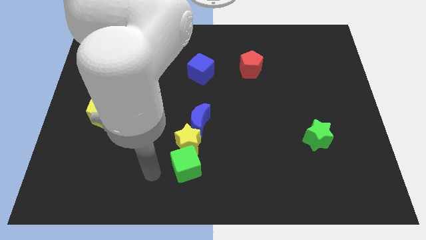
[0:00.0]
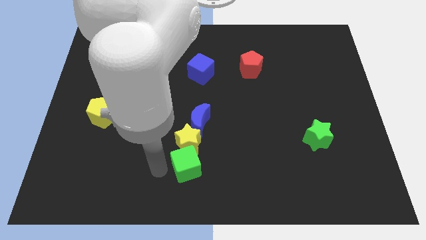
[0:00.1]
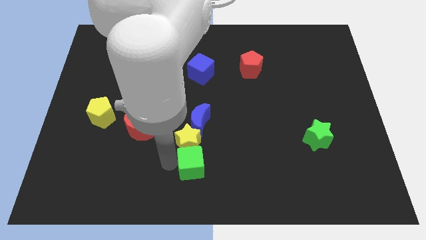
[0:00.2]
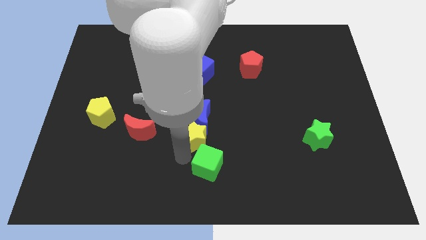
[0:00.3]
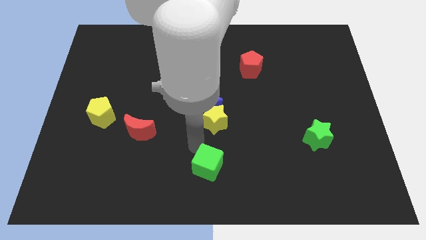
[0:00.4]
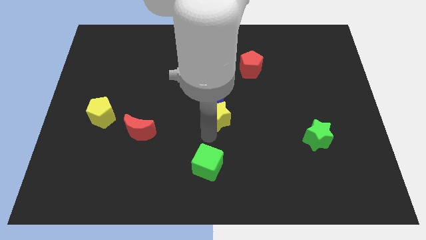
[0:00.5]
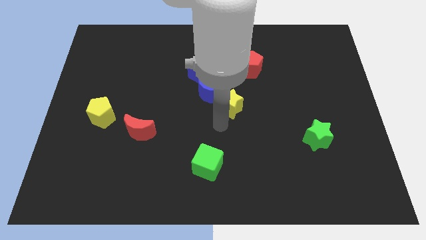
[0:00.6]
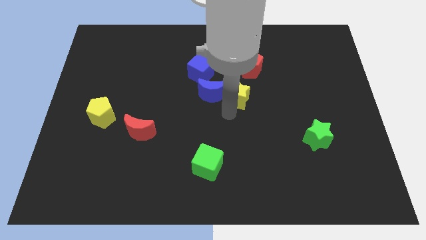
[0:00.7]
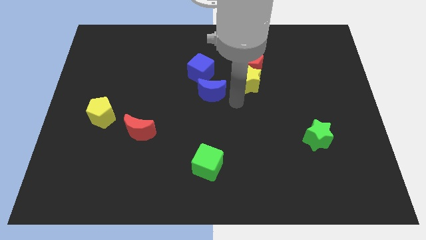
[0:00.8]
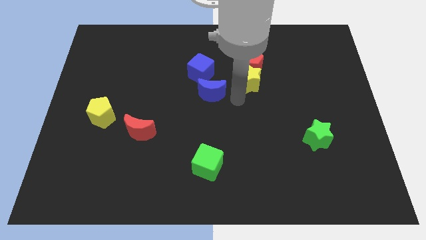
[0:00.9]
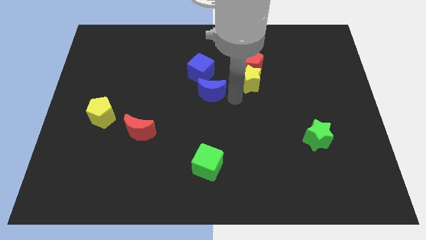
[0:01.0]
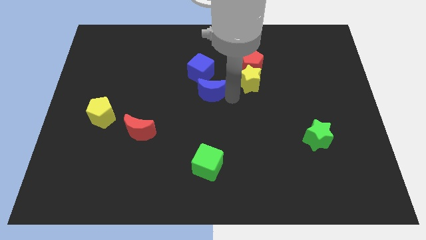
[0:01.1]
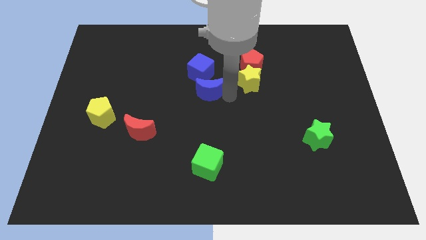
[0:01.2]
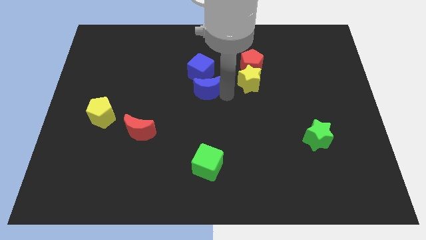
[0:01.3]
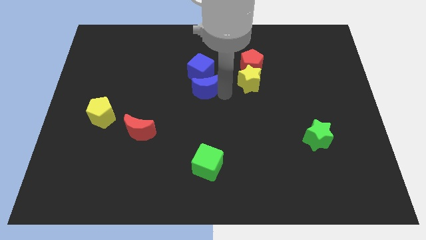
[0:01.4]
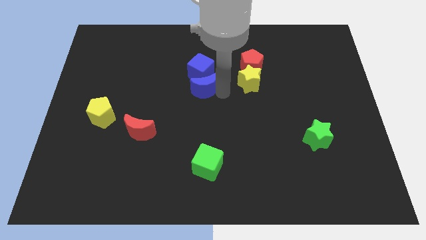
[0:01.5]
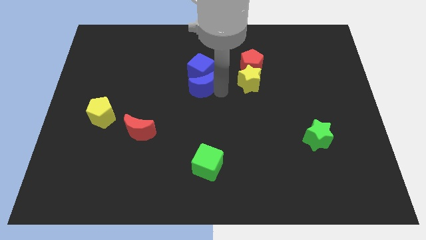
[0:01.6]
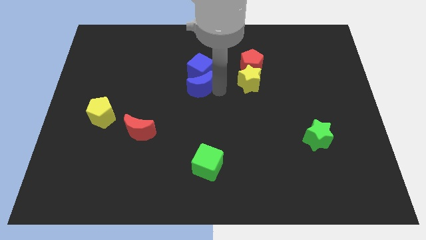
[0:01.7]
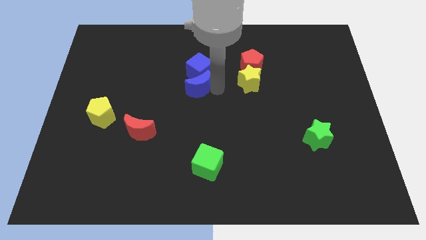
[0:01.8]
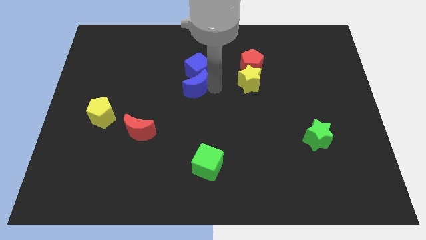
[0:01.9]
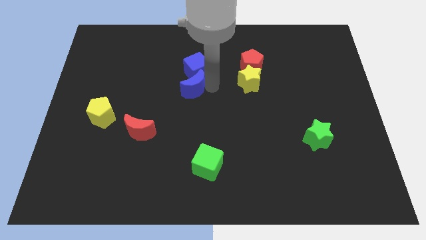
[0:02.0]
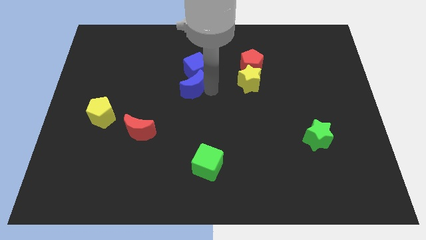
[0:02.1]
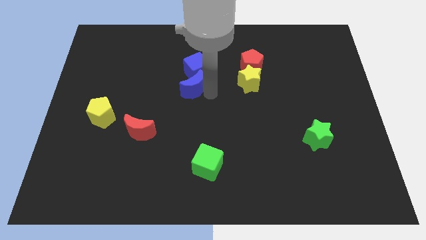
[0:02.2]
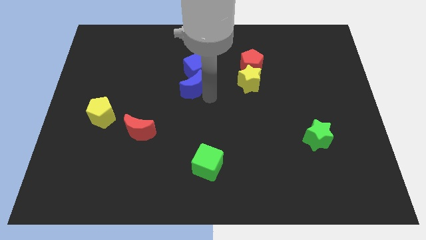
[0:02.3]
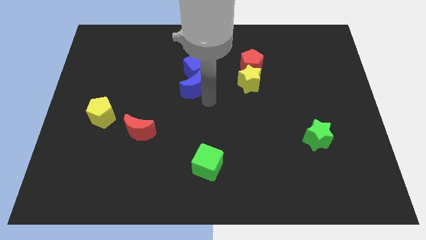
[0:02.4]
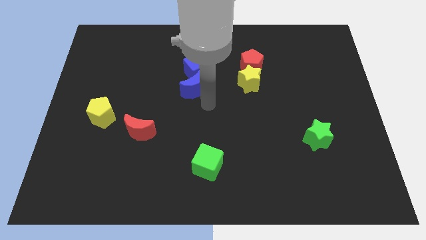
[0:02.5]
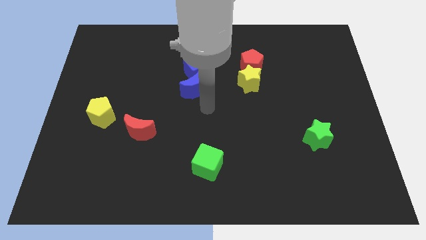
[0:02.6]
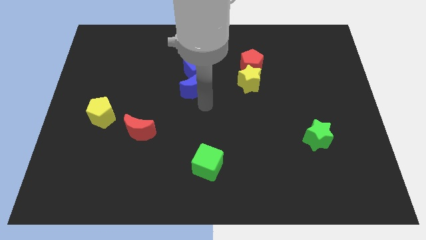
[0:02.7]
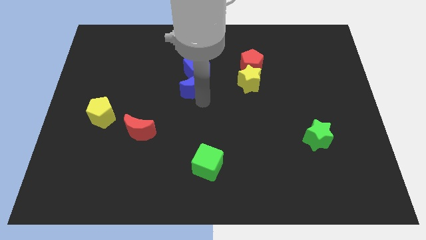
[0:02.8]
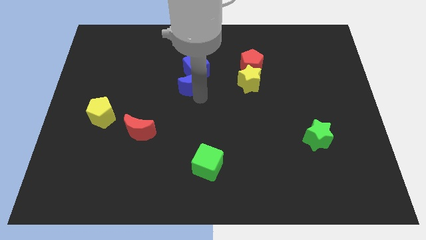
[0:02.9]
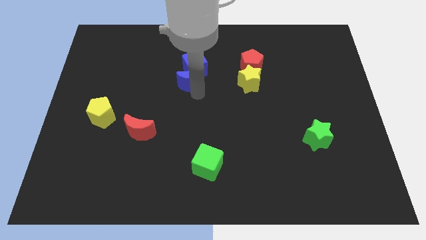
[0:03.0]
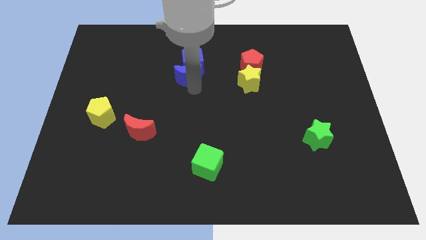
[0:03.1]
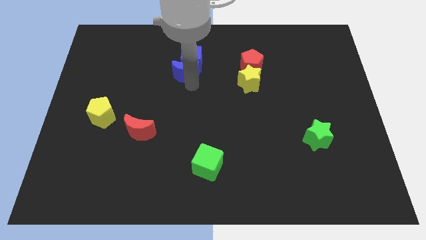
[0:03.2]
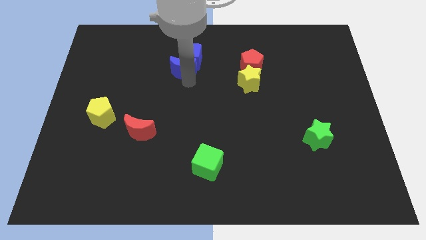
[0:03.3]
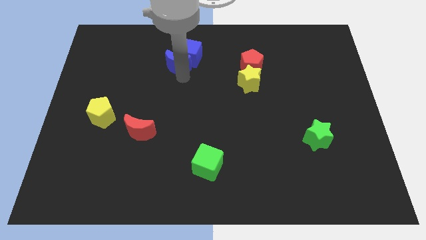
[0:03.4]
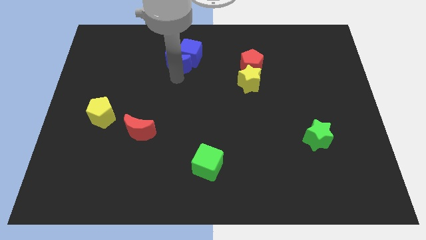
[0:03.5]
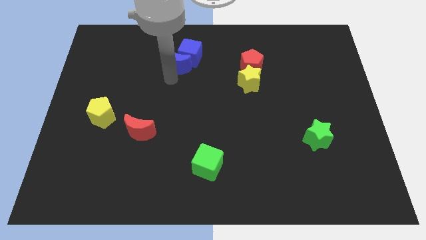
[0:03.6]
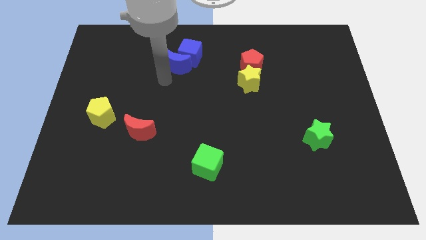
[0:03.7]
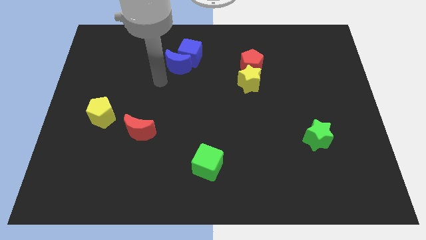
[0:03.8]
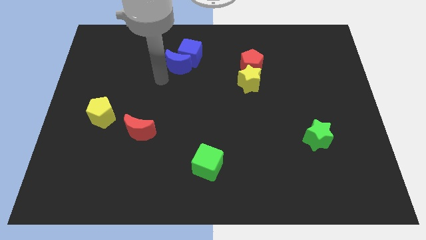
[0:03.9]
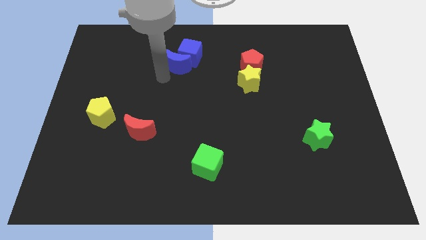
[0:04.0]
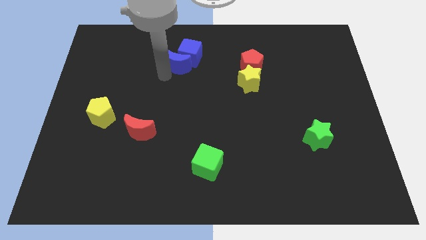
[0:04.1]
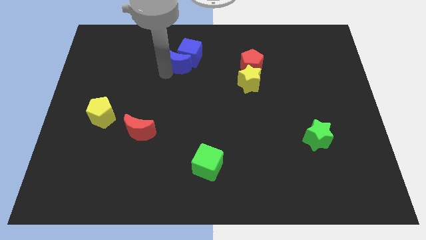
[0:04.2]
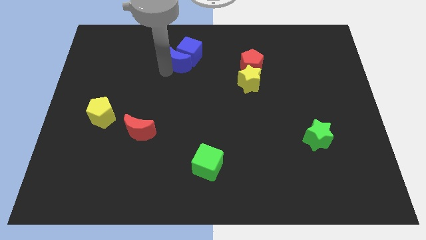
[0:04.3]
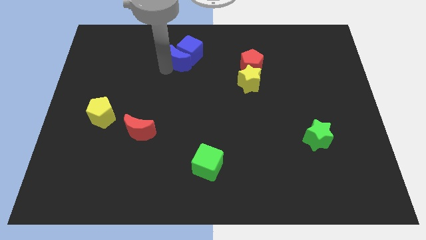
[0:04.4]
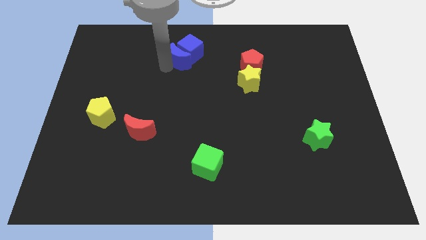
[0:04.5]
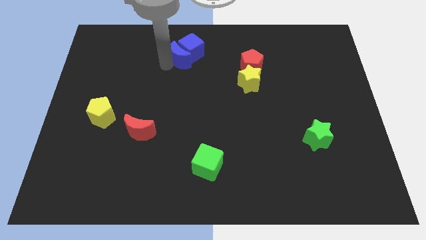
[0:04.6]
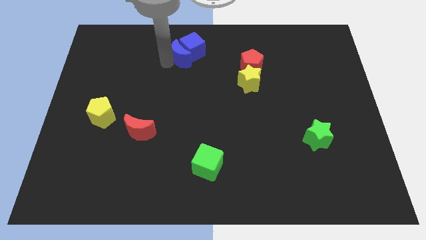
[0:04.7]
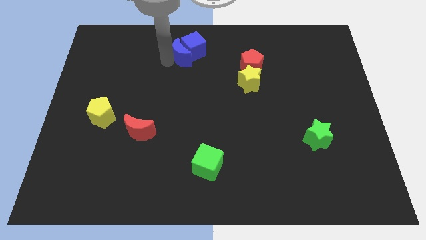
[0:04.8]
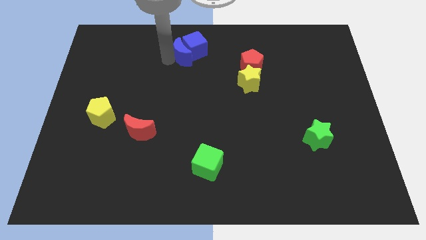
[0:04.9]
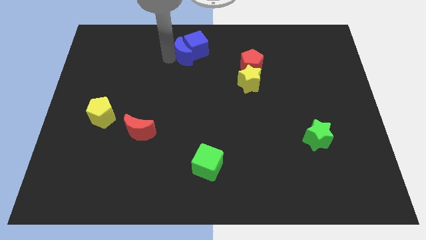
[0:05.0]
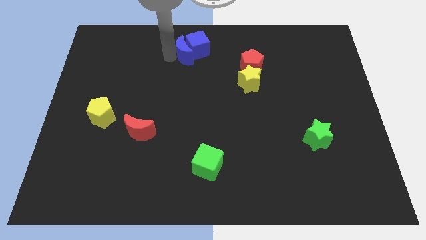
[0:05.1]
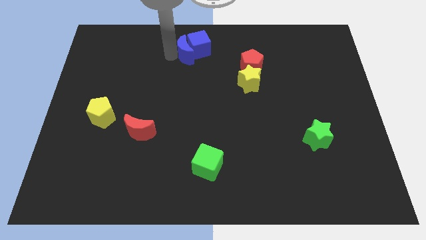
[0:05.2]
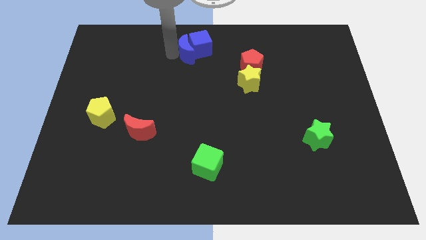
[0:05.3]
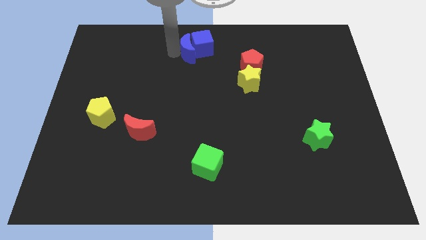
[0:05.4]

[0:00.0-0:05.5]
move the blue moon to the top side

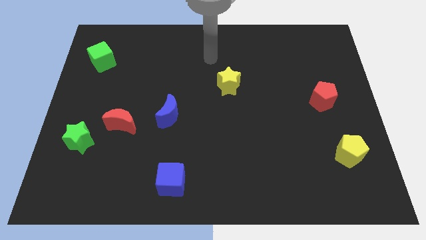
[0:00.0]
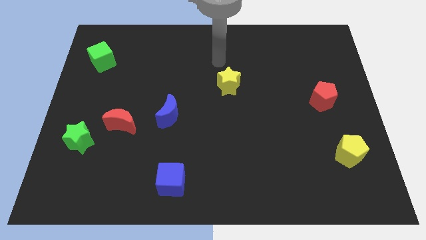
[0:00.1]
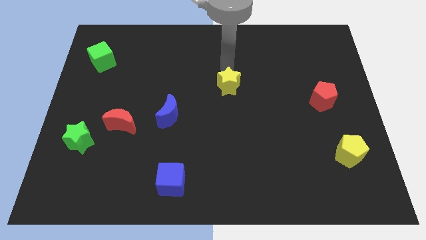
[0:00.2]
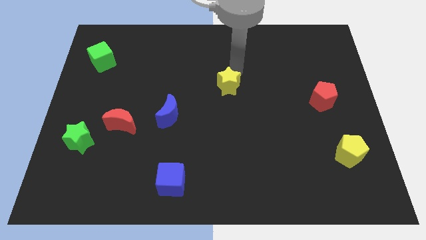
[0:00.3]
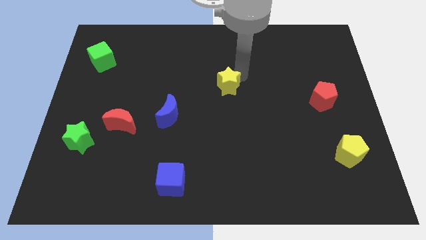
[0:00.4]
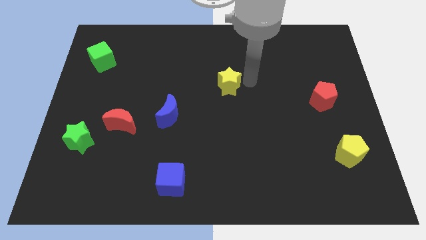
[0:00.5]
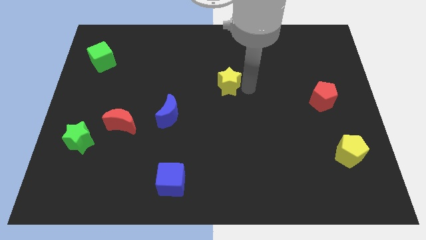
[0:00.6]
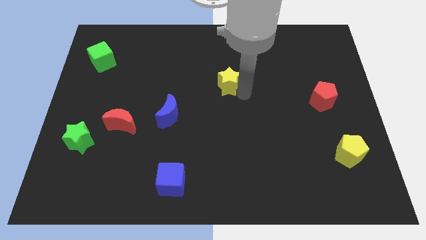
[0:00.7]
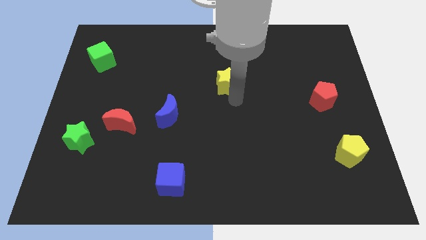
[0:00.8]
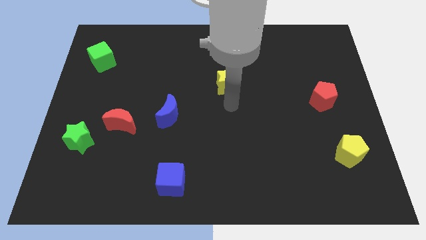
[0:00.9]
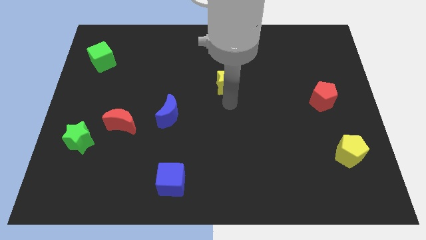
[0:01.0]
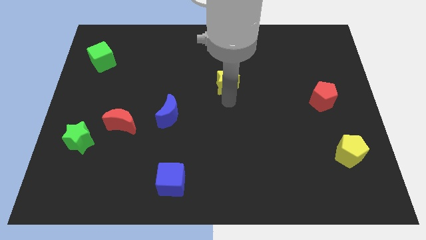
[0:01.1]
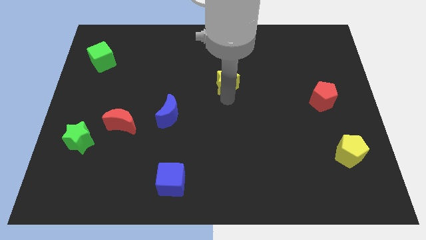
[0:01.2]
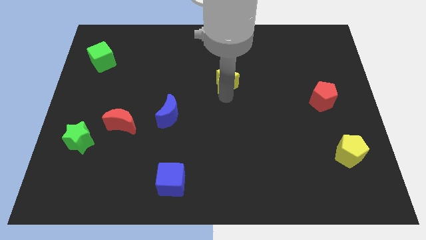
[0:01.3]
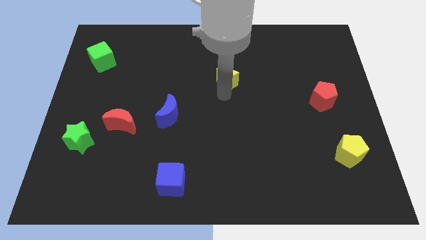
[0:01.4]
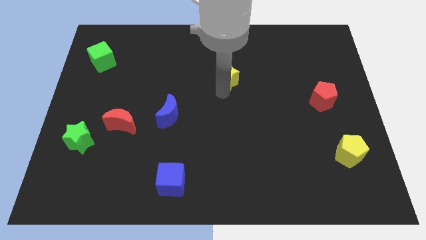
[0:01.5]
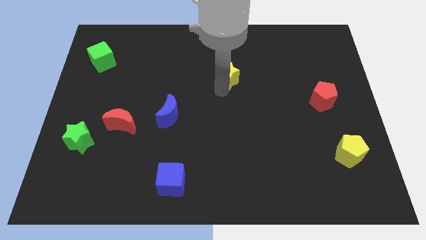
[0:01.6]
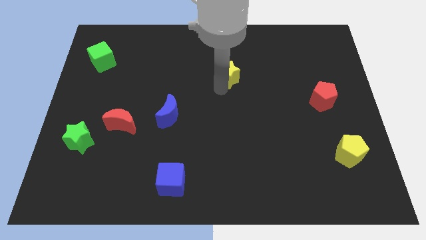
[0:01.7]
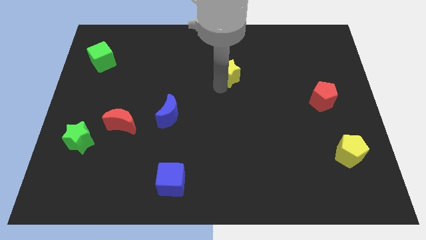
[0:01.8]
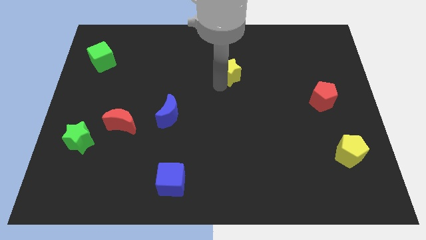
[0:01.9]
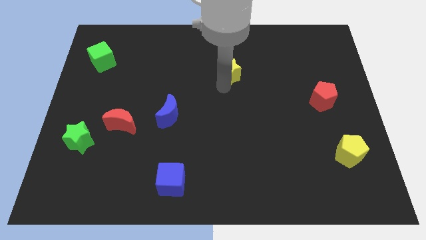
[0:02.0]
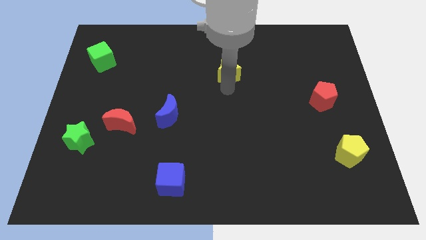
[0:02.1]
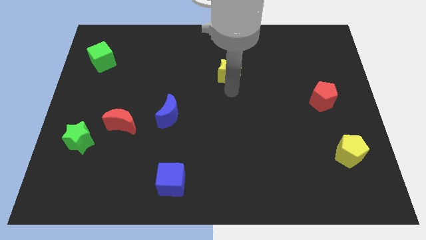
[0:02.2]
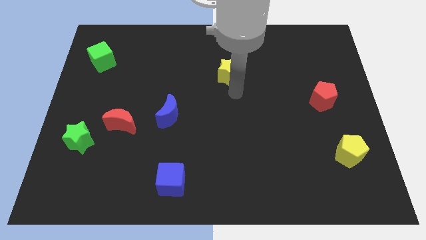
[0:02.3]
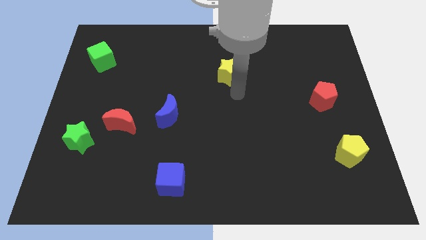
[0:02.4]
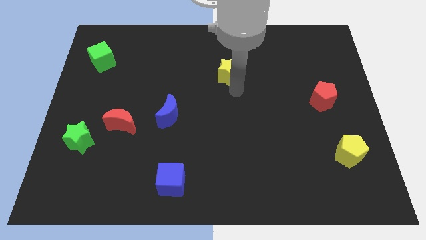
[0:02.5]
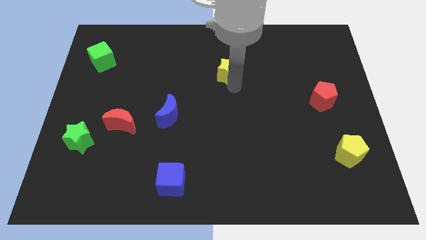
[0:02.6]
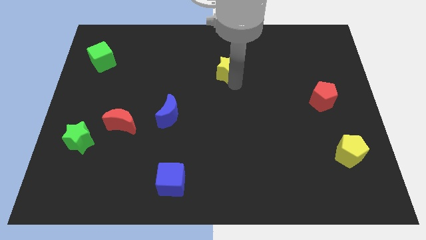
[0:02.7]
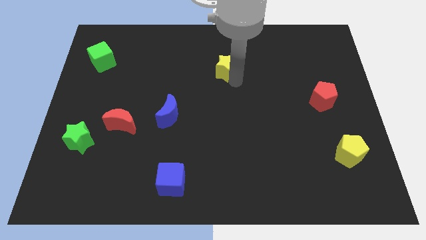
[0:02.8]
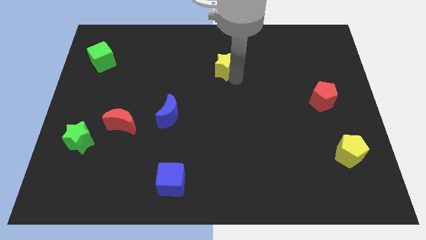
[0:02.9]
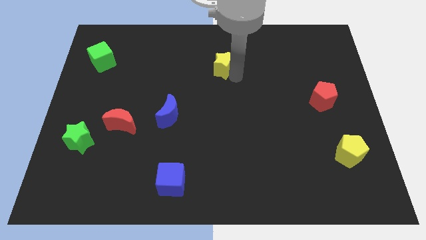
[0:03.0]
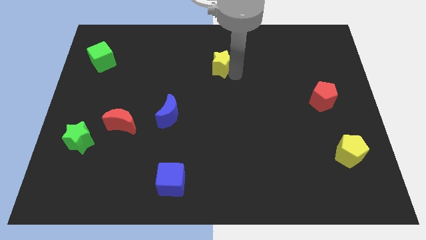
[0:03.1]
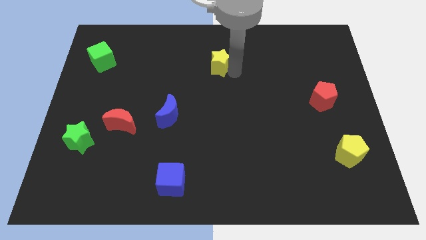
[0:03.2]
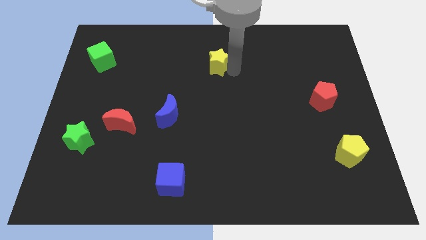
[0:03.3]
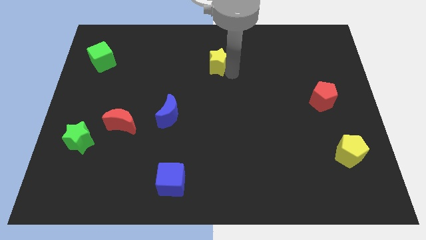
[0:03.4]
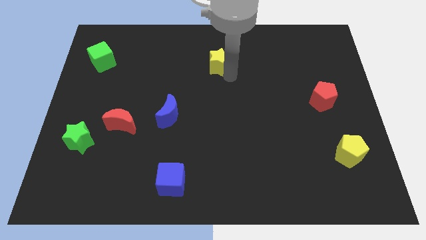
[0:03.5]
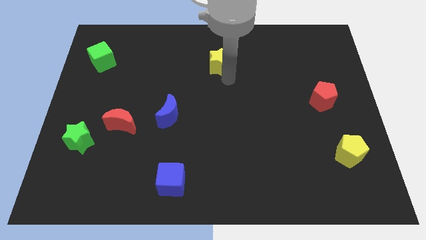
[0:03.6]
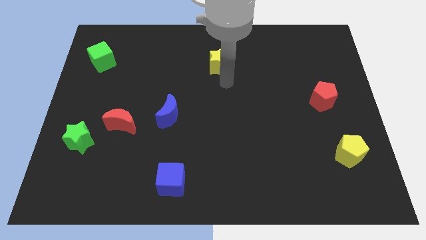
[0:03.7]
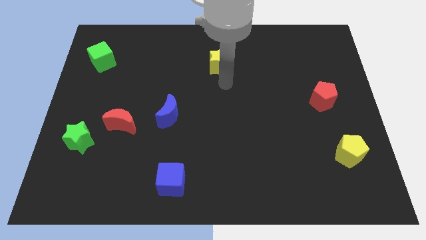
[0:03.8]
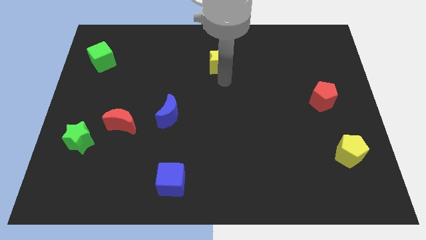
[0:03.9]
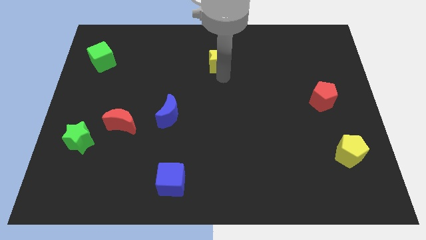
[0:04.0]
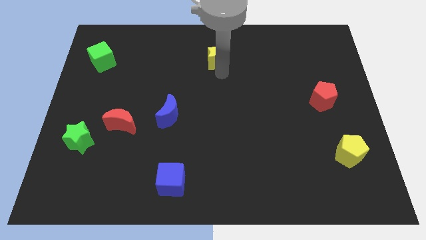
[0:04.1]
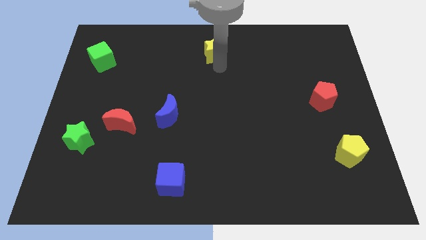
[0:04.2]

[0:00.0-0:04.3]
put the yellow star to the top side
